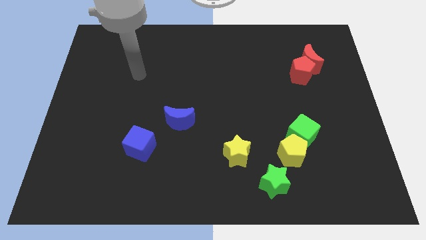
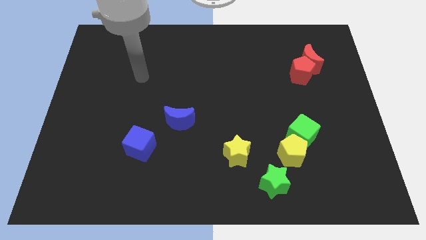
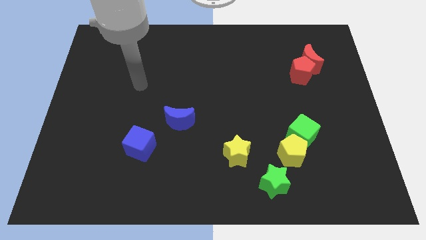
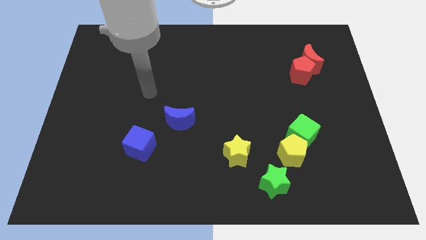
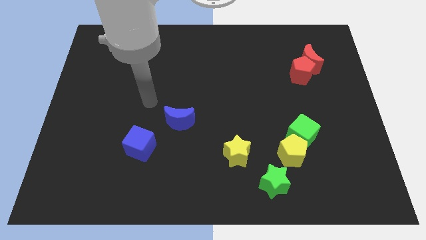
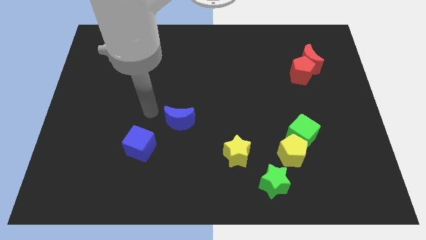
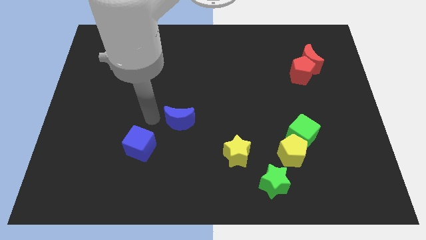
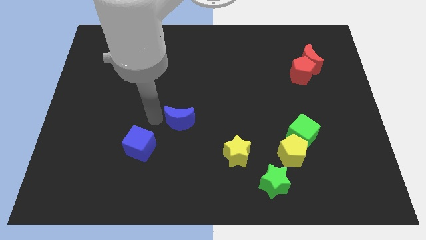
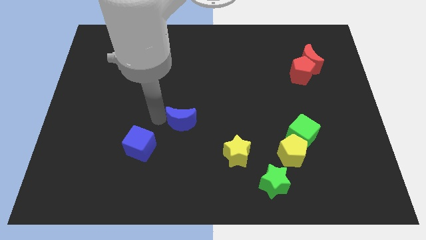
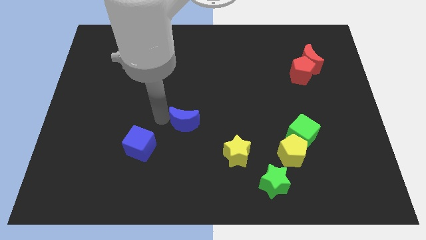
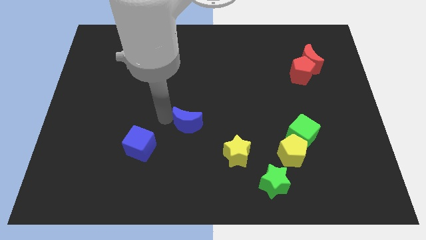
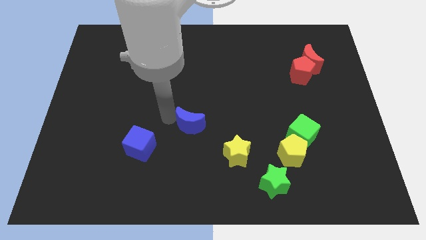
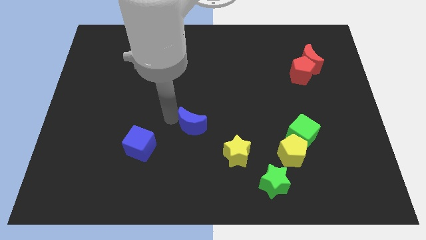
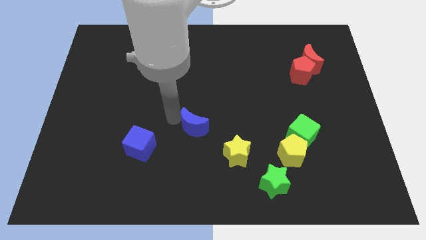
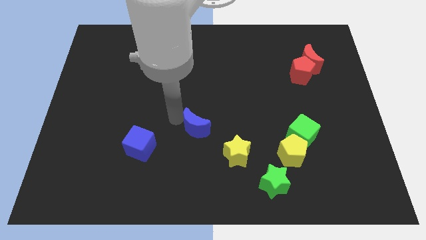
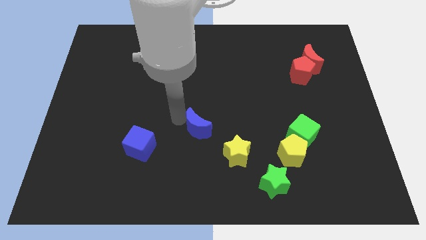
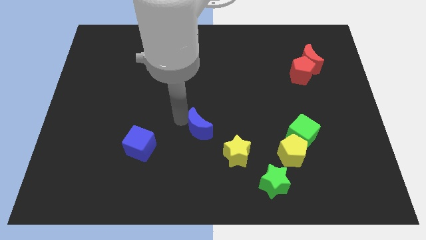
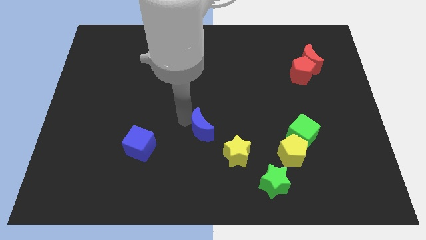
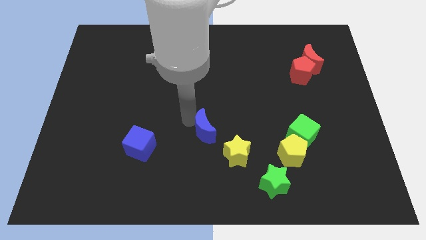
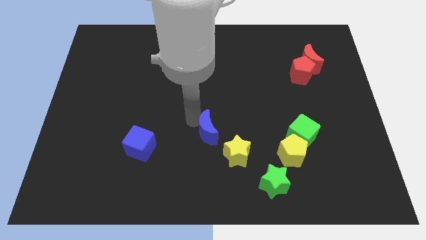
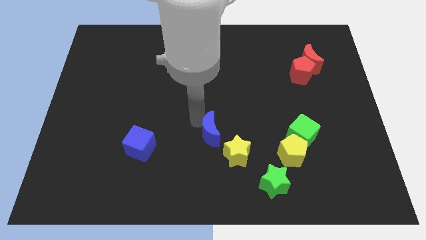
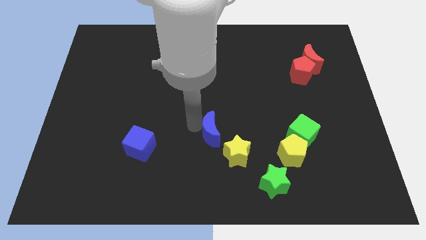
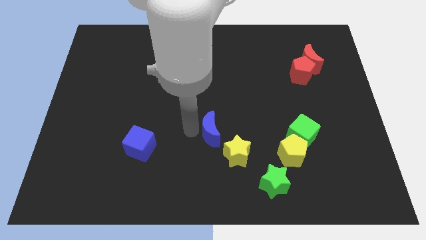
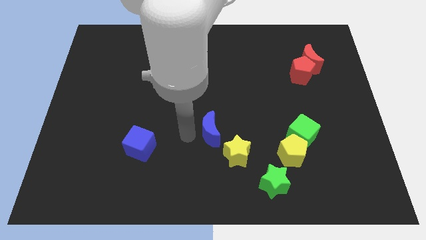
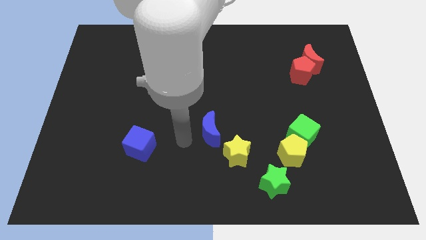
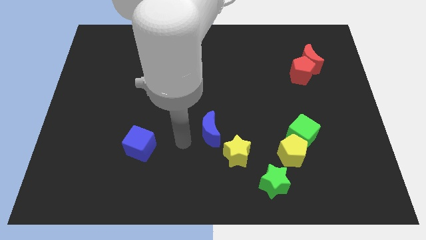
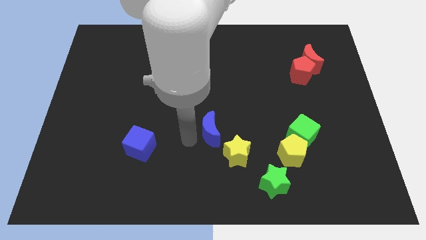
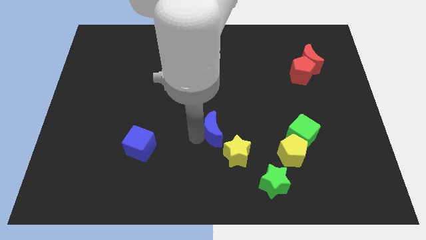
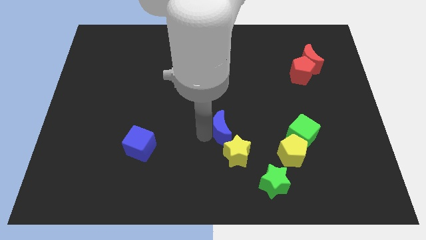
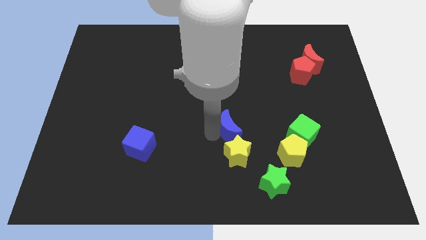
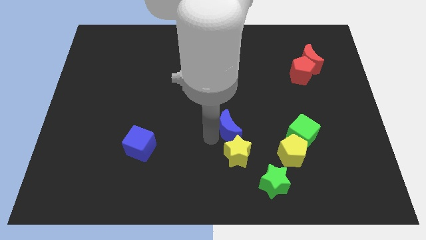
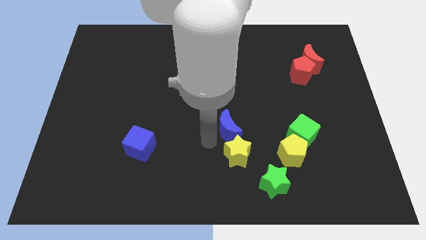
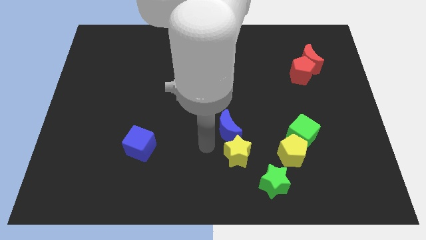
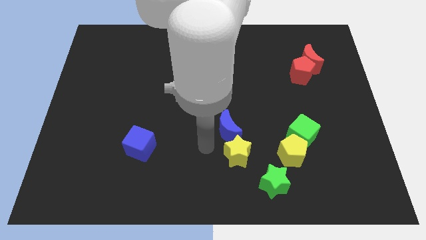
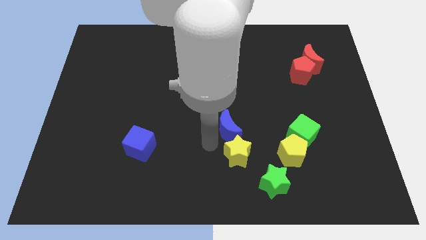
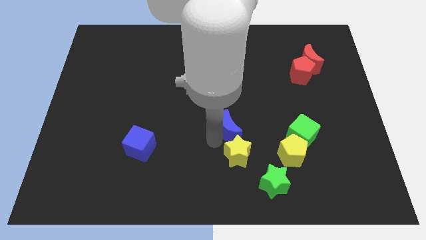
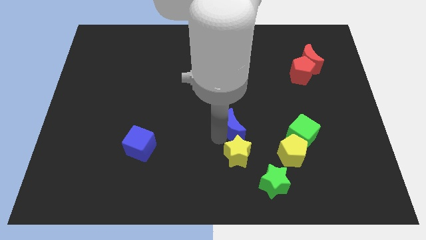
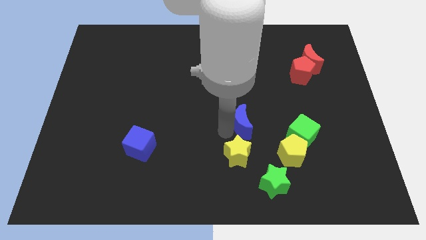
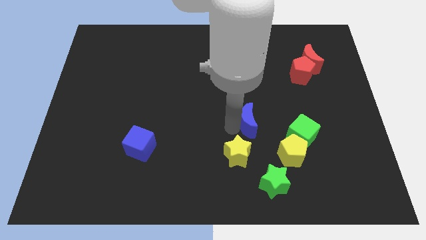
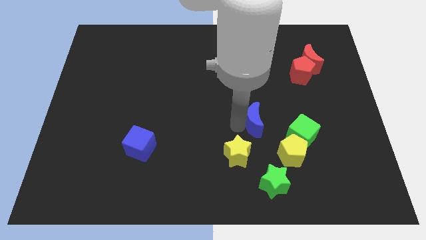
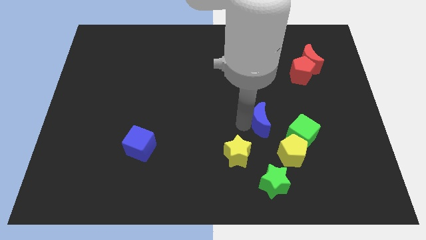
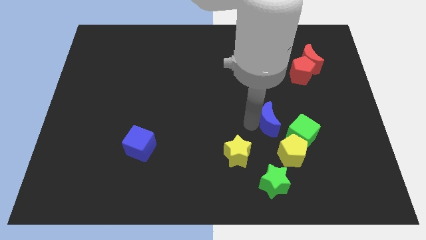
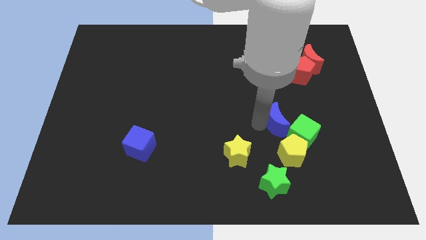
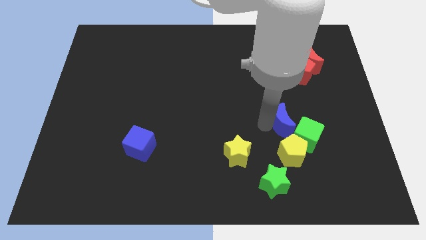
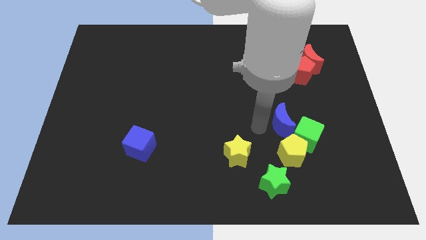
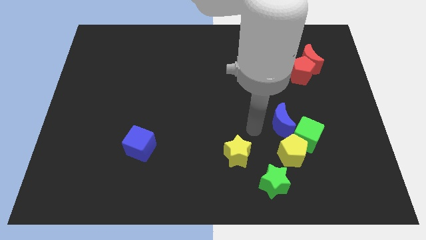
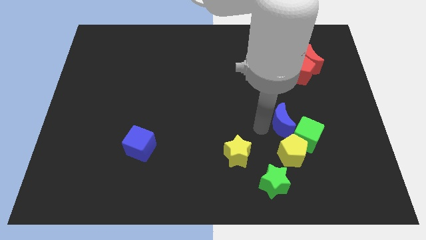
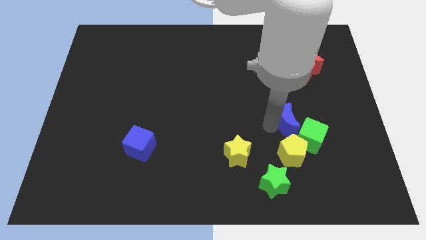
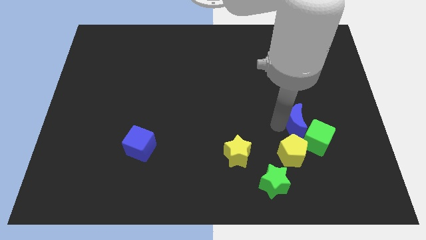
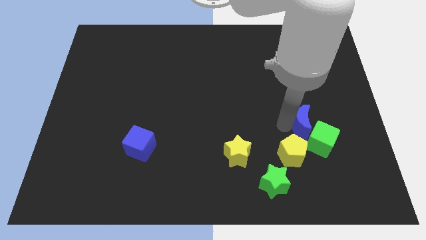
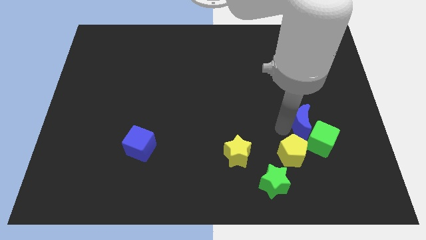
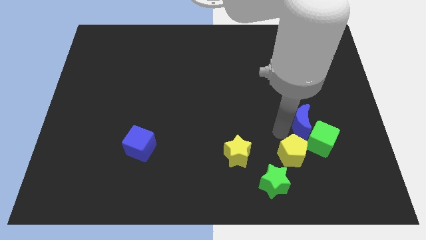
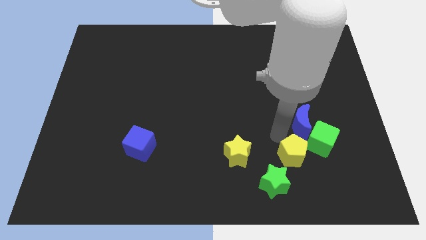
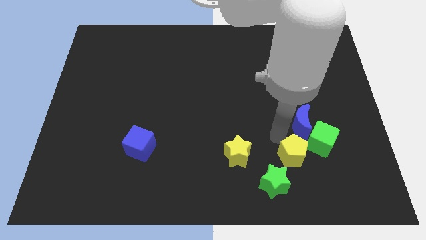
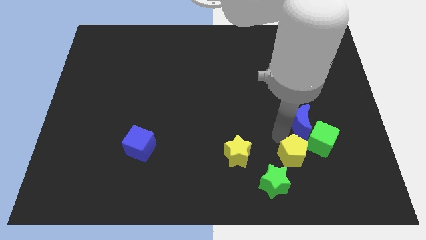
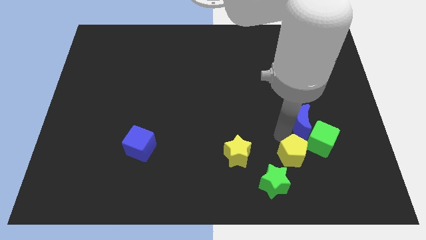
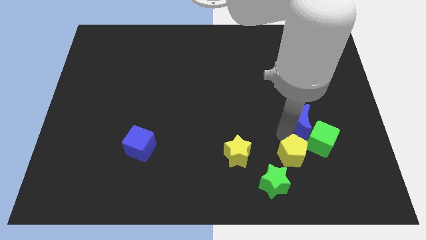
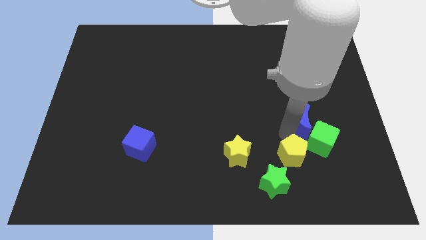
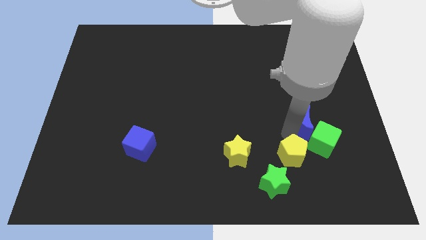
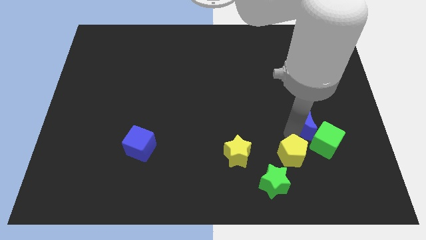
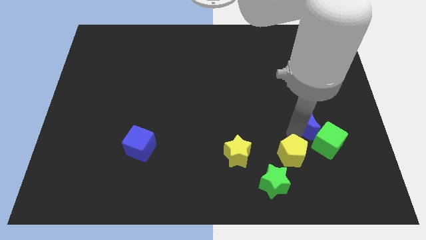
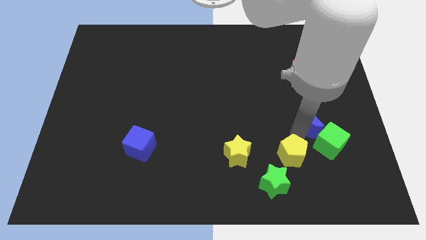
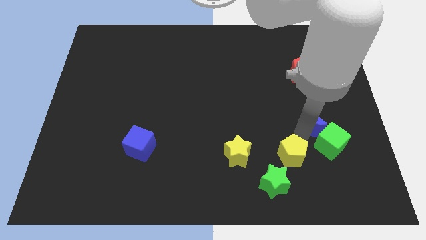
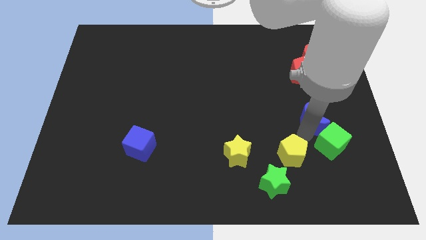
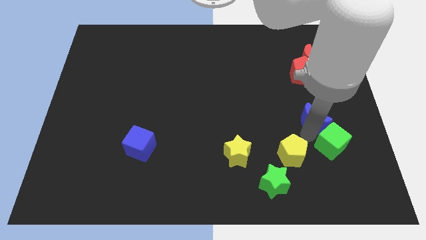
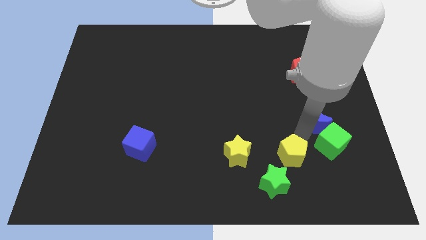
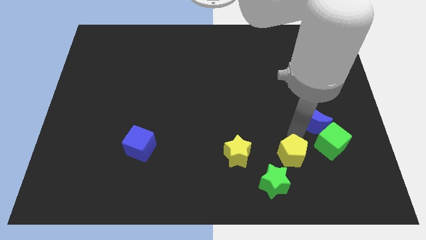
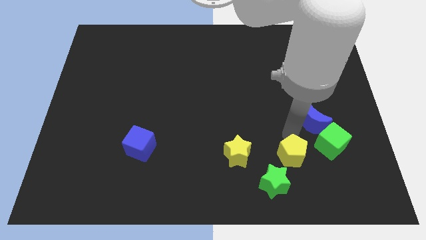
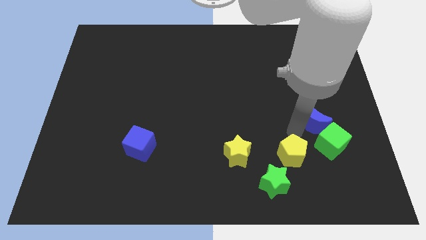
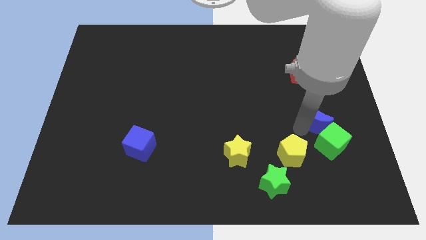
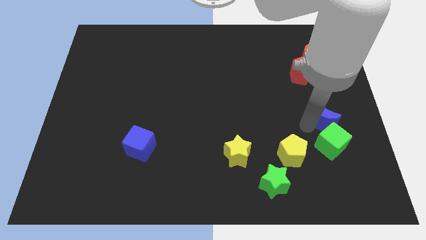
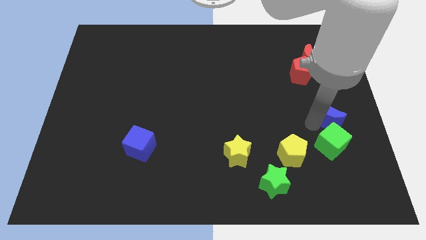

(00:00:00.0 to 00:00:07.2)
push the blue moon to the center right

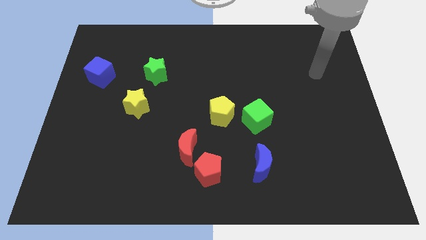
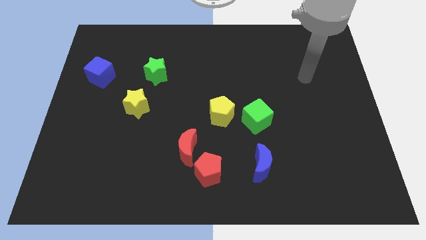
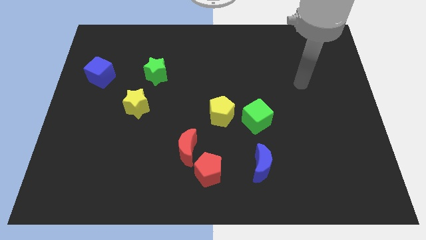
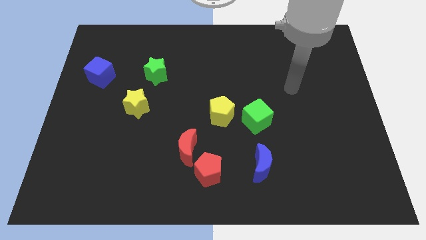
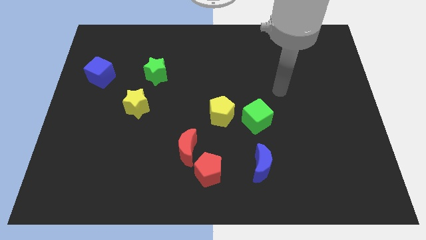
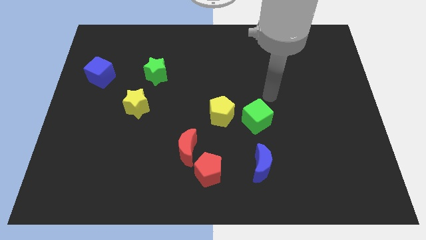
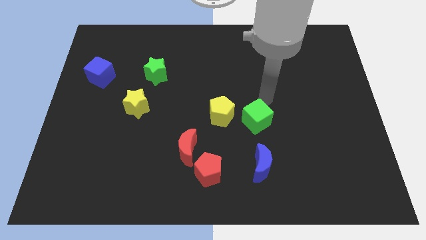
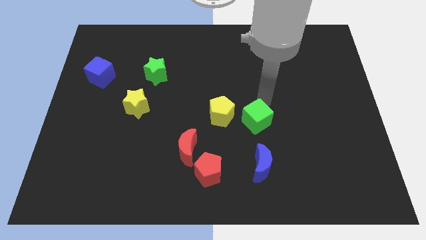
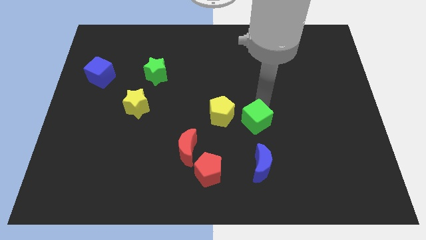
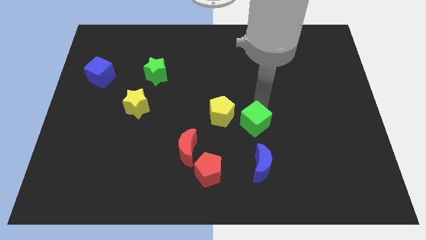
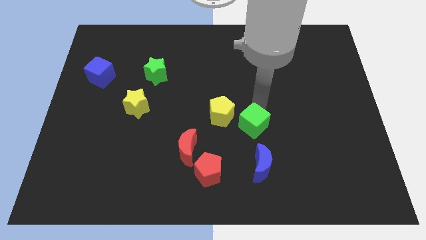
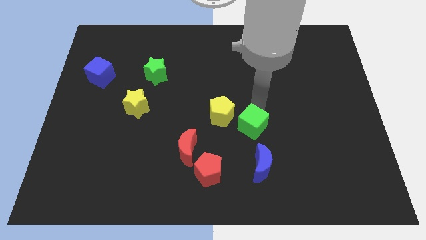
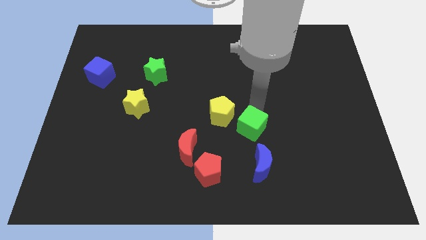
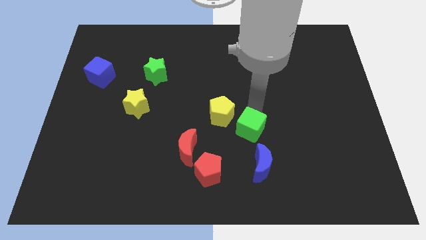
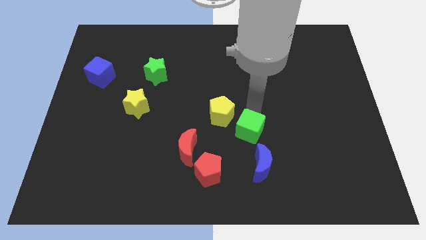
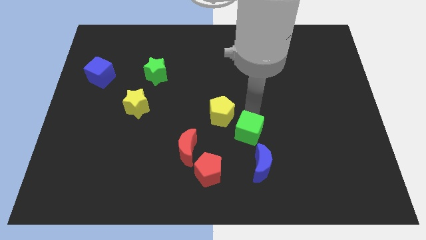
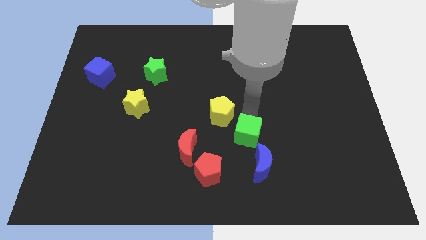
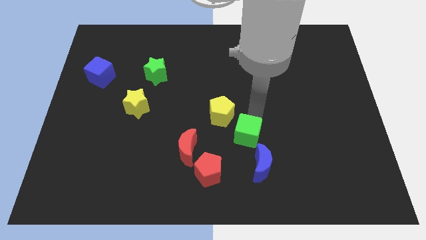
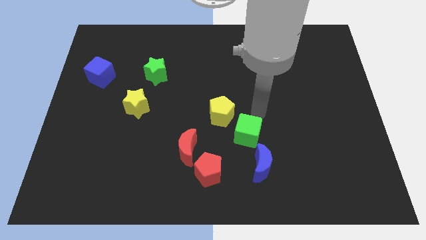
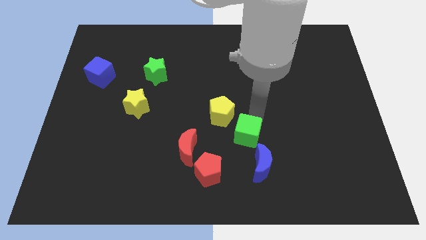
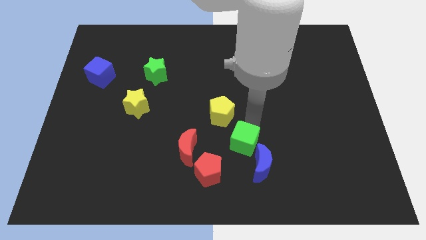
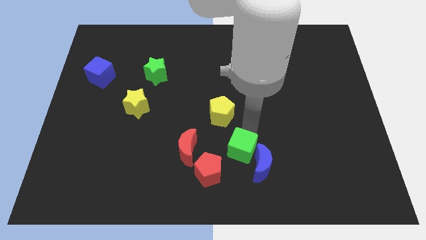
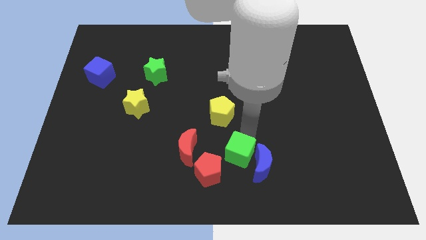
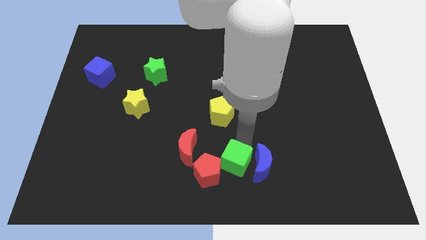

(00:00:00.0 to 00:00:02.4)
slide the green cube to the bottom side
